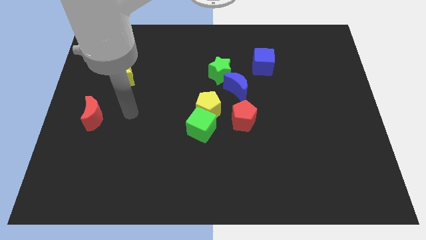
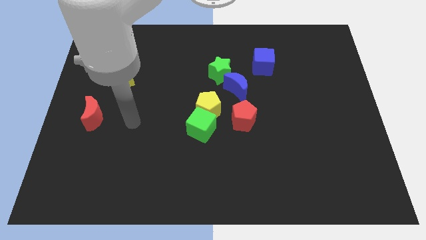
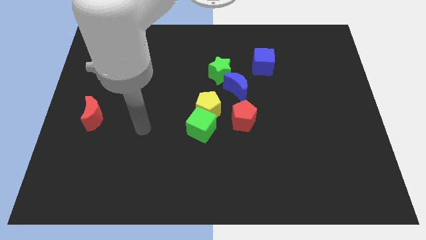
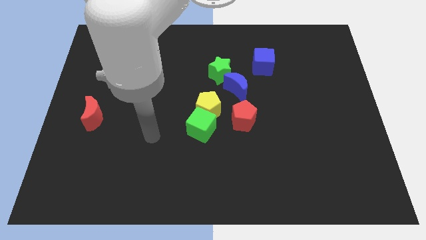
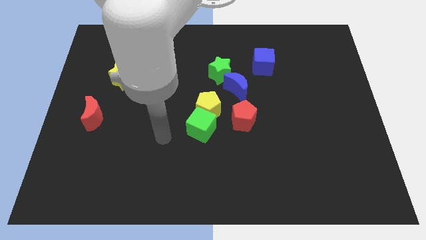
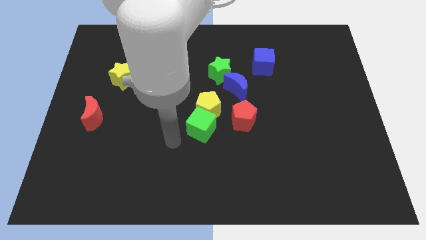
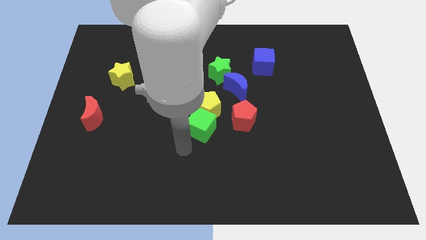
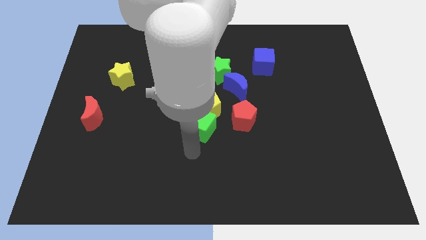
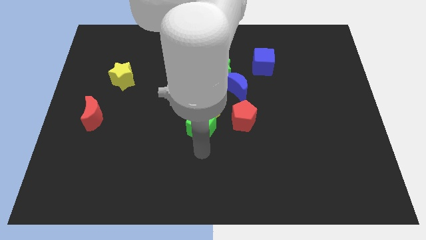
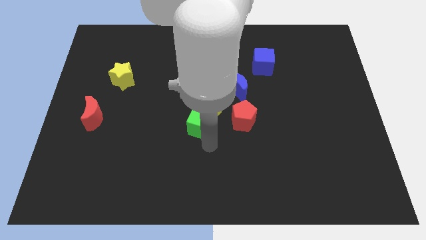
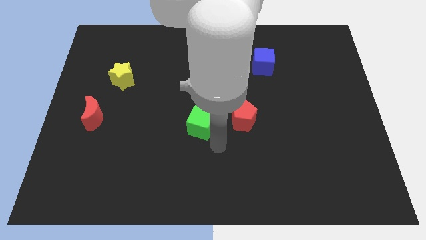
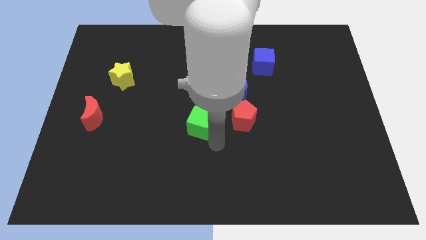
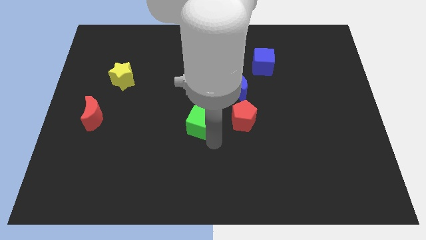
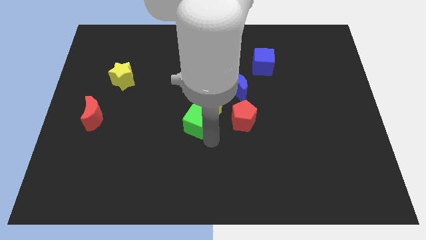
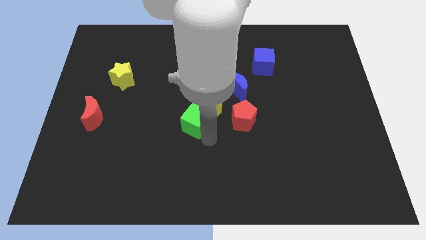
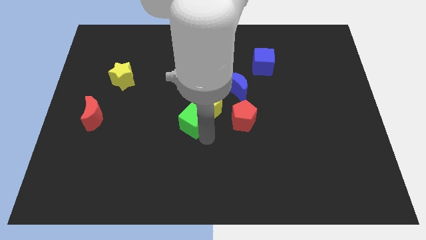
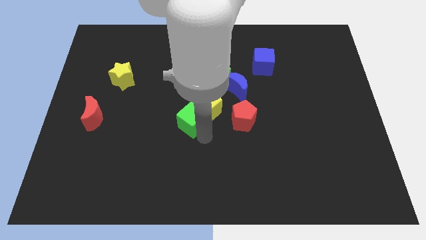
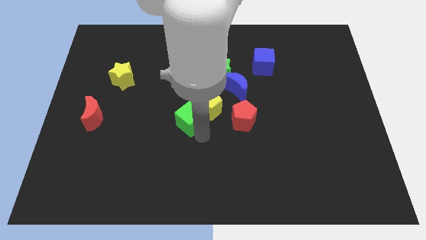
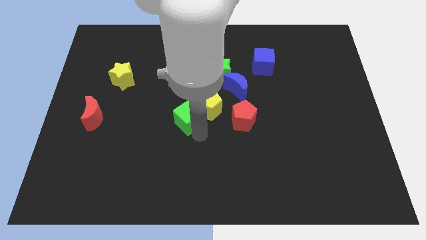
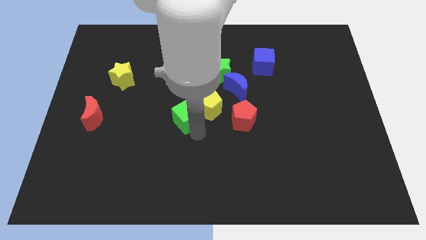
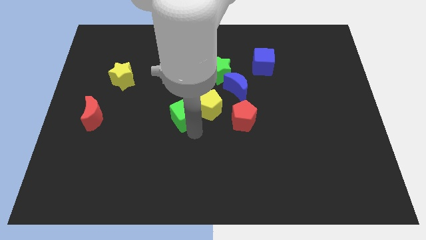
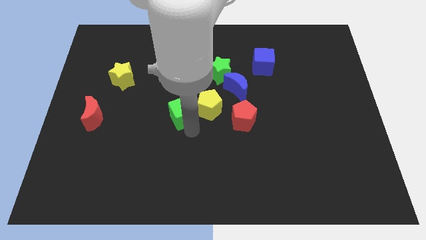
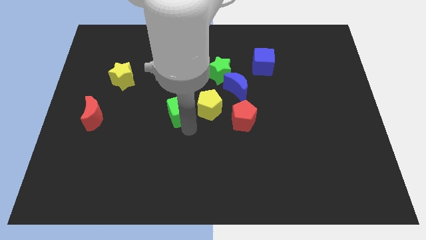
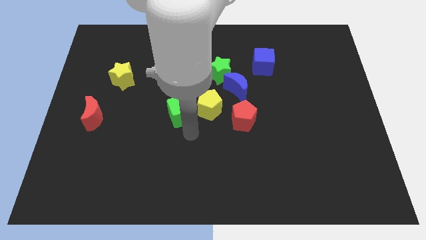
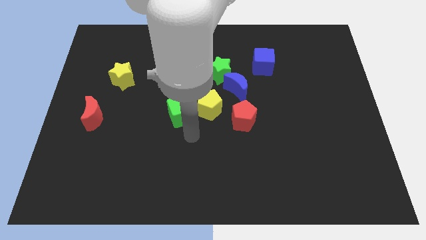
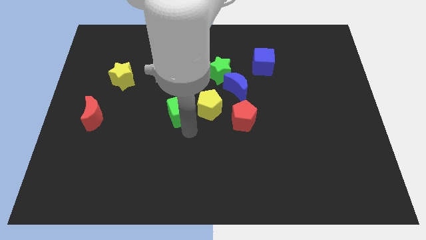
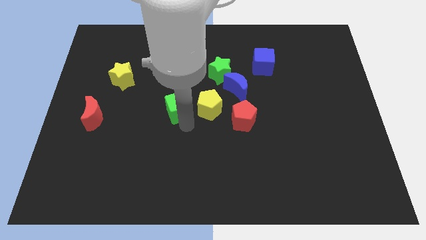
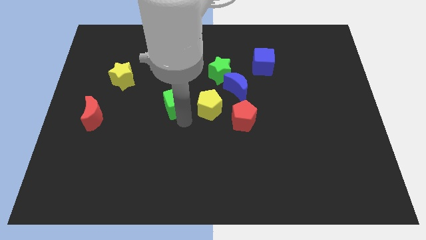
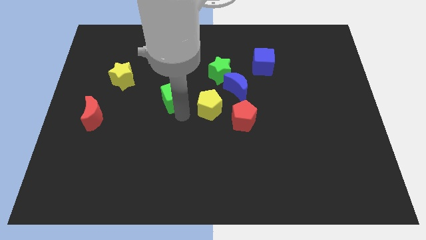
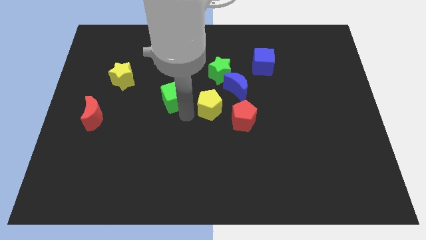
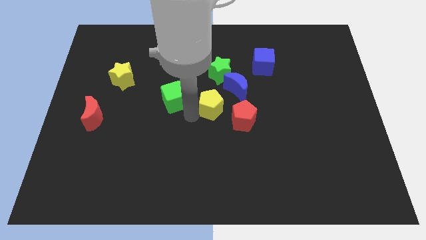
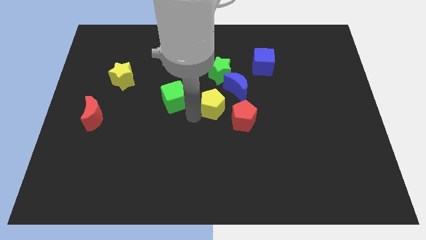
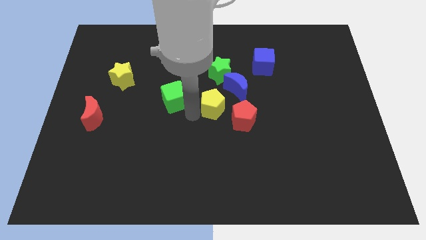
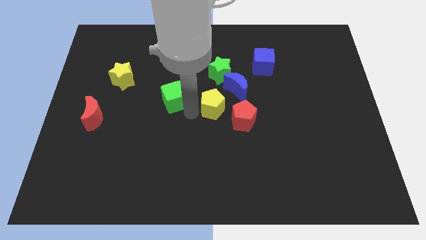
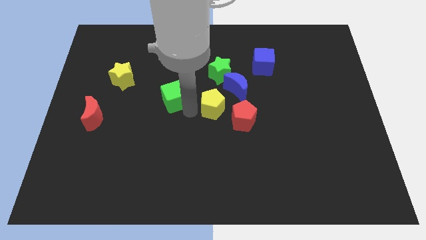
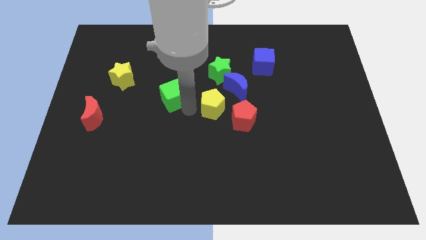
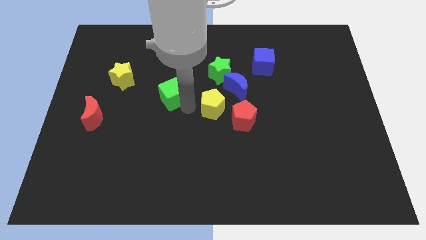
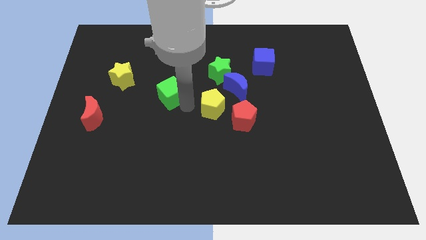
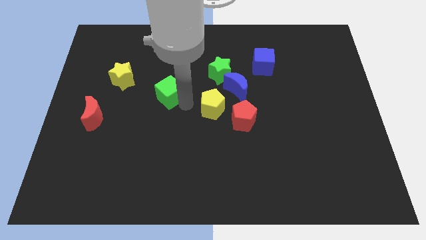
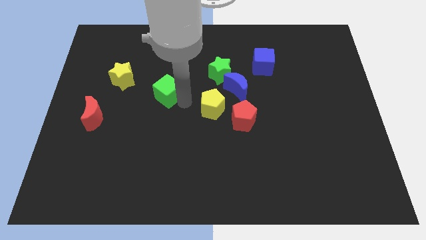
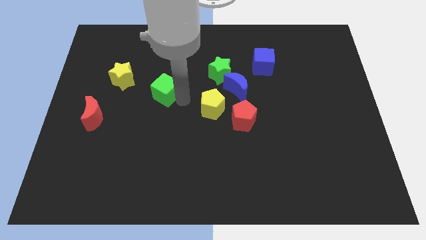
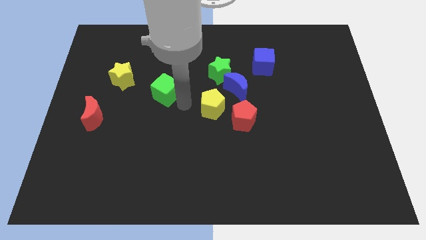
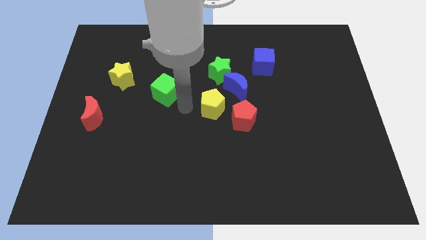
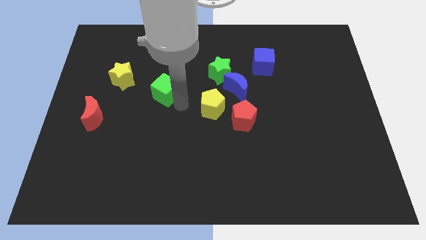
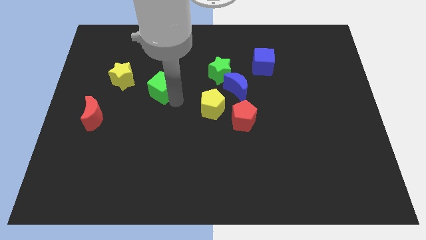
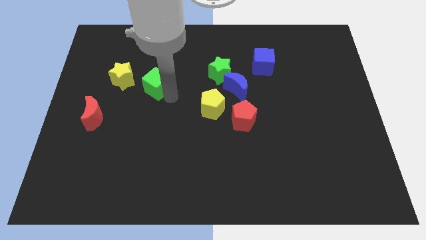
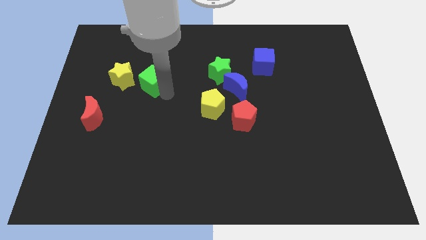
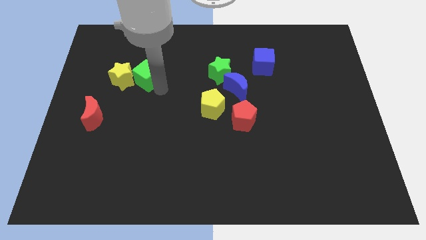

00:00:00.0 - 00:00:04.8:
push the green cube up and left

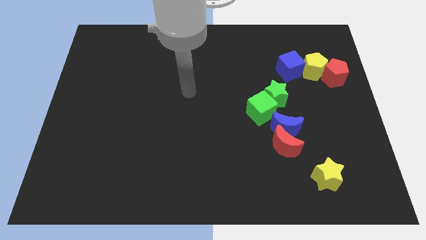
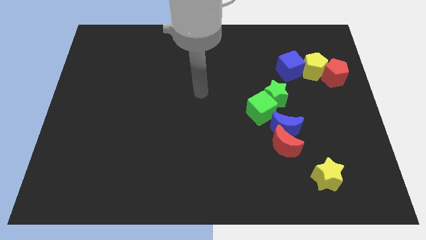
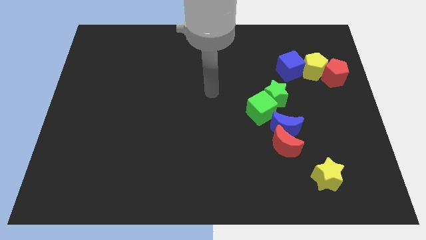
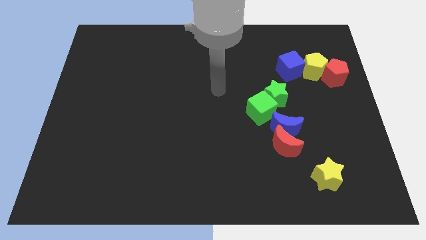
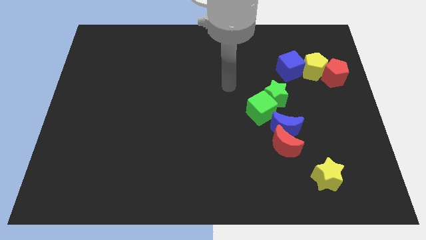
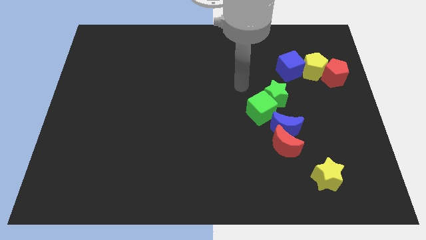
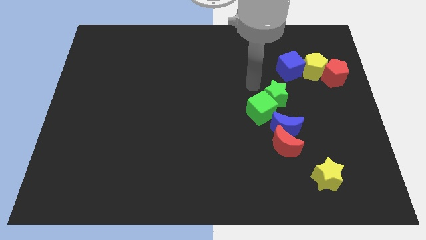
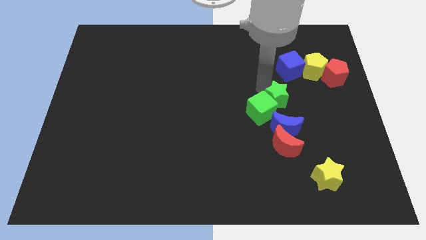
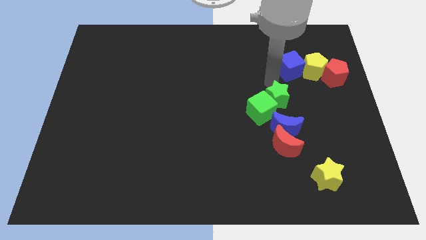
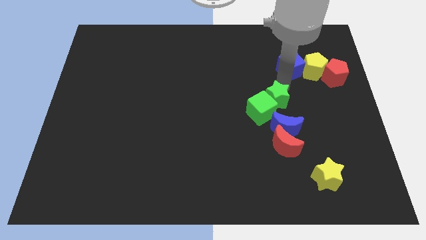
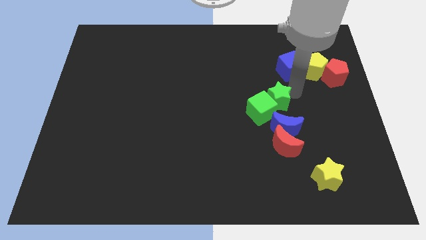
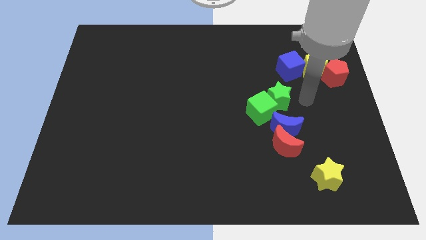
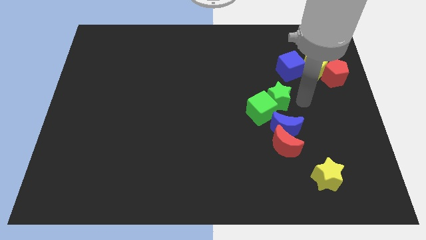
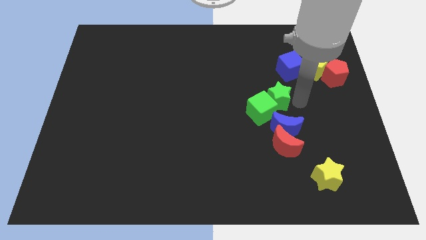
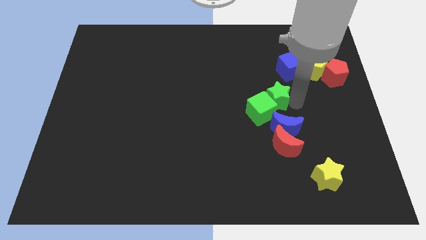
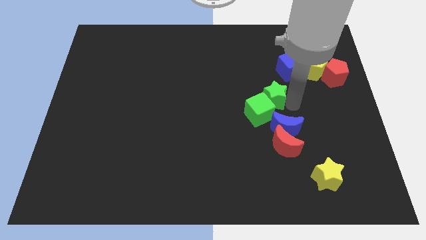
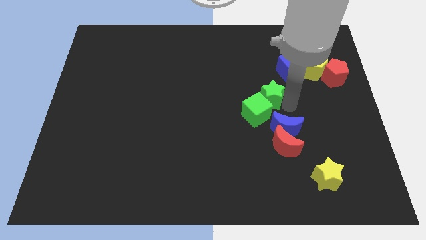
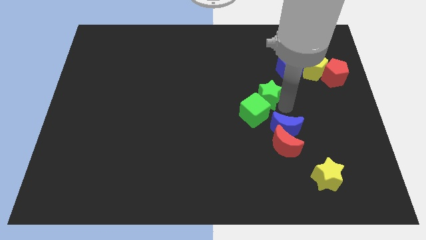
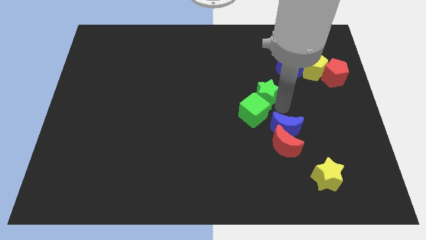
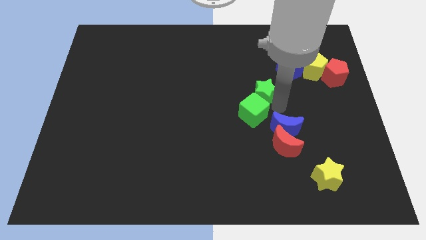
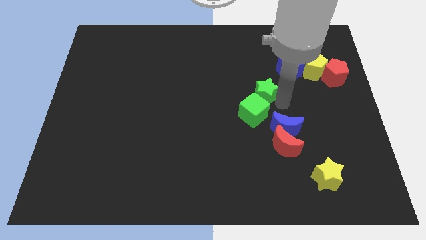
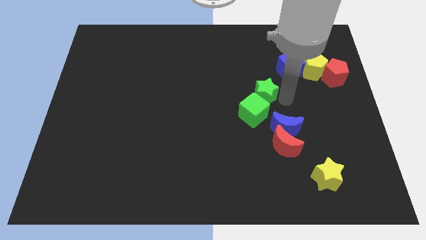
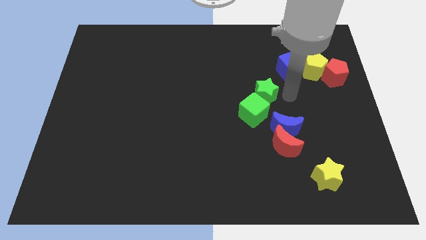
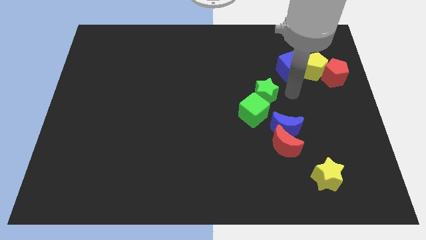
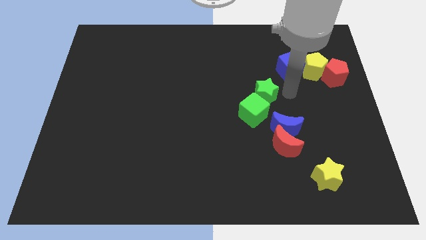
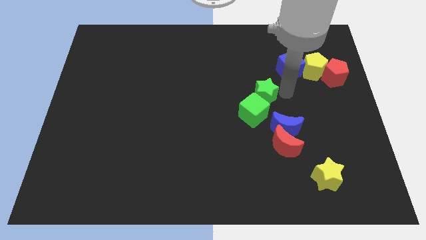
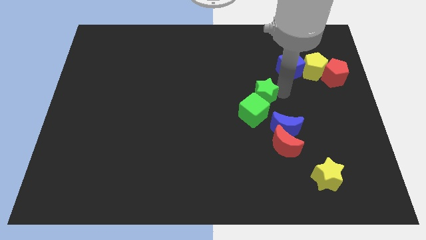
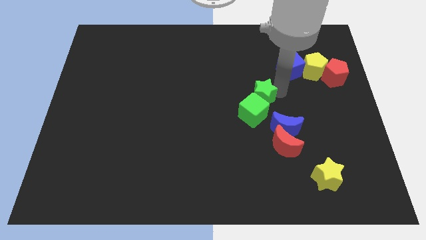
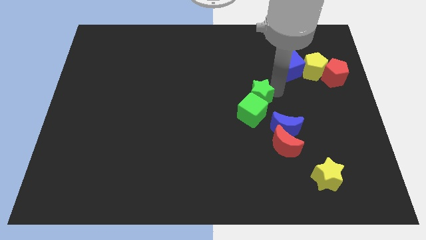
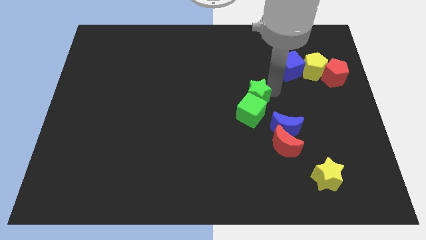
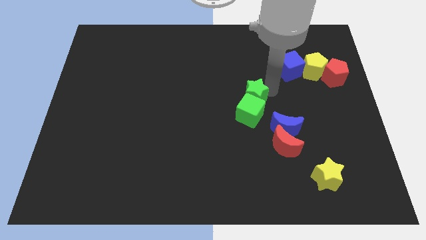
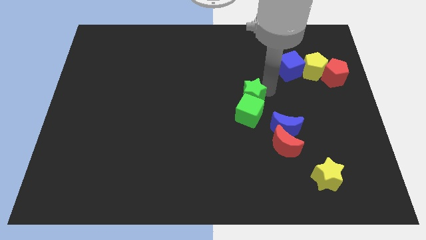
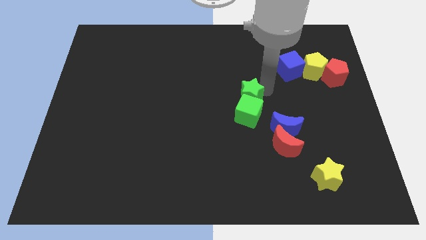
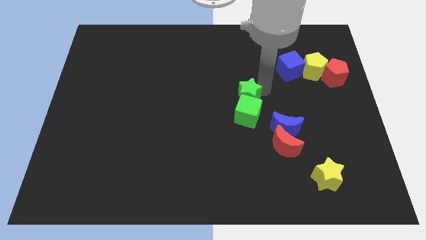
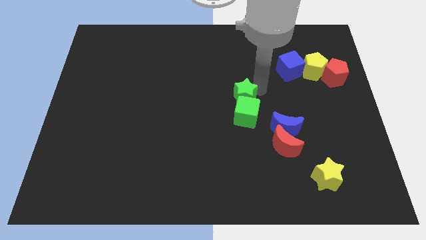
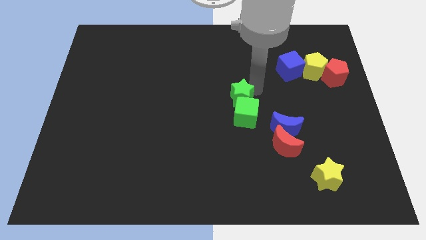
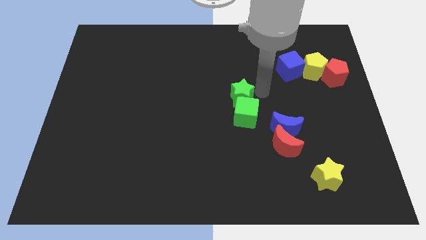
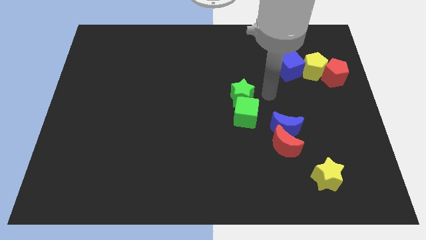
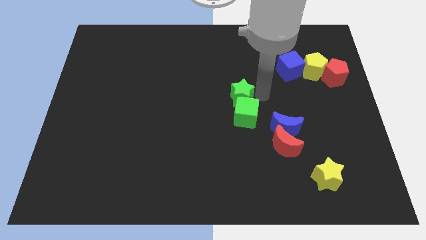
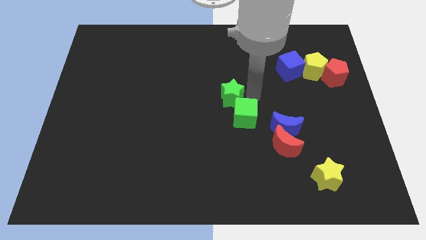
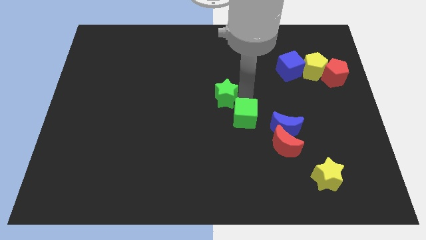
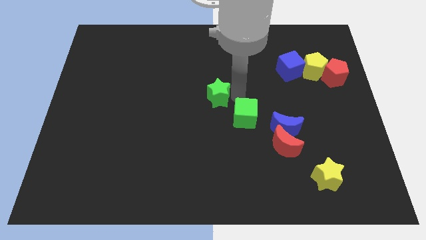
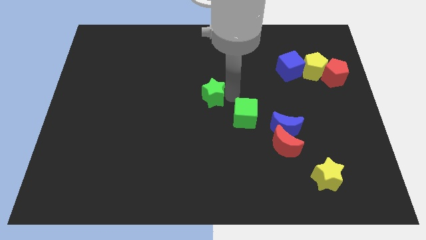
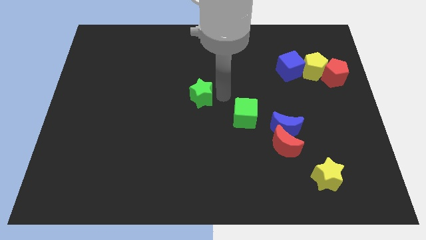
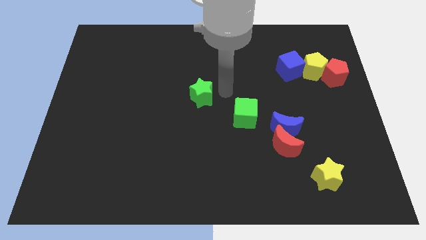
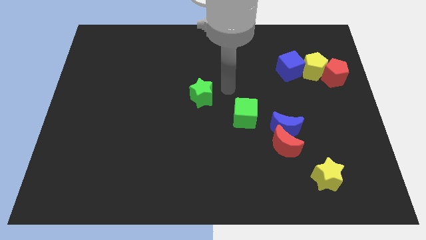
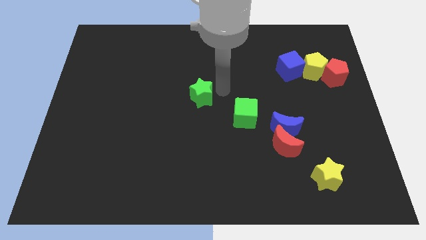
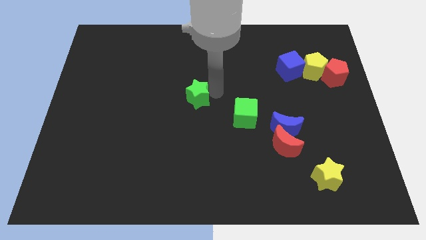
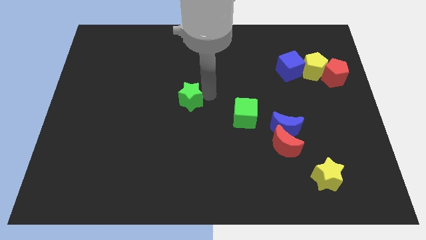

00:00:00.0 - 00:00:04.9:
push the green star left
